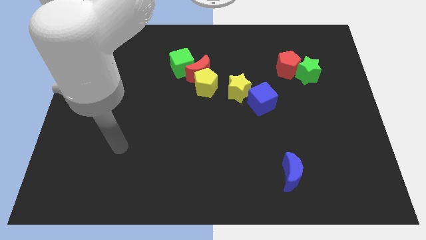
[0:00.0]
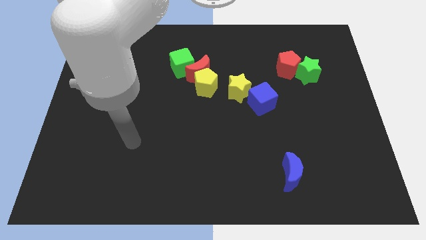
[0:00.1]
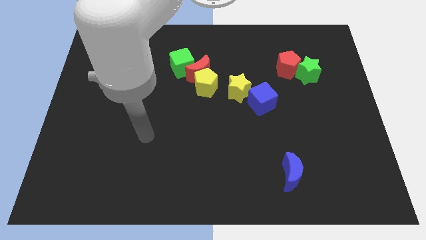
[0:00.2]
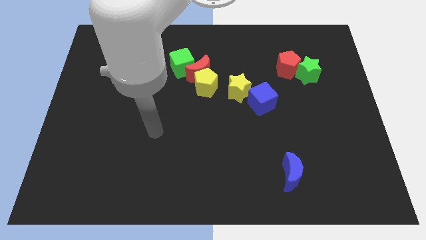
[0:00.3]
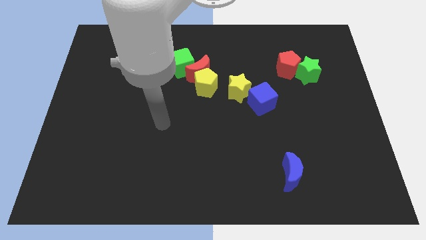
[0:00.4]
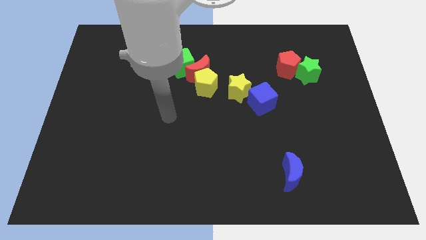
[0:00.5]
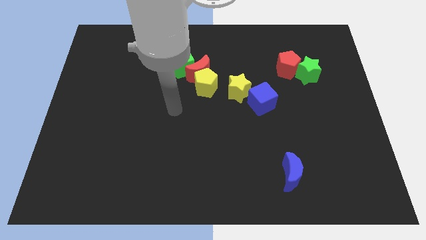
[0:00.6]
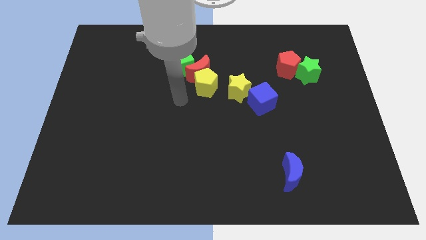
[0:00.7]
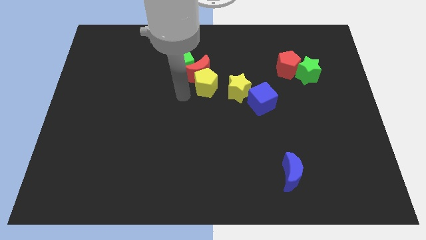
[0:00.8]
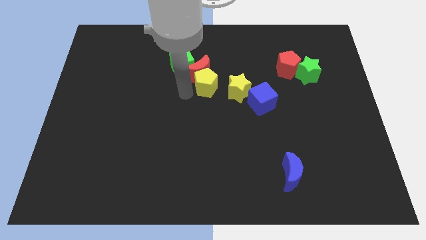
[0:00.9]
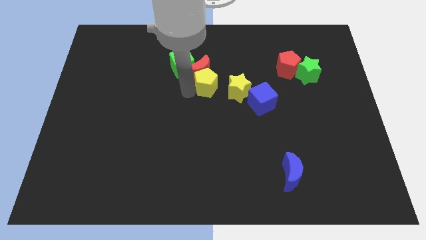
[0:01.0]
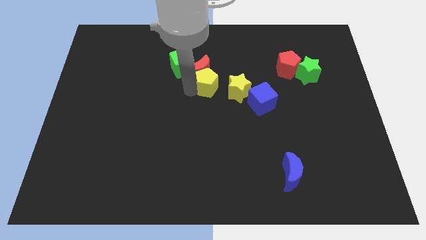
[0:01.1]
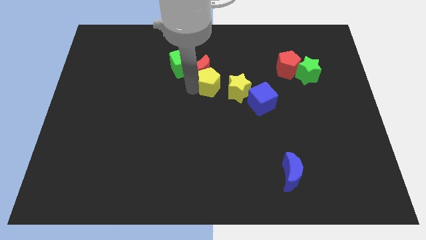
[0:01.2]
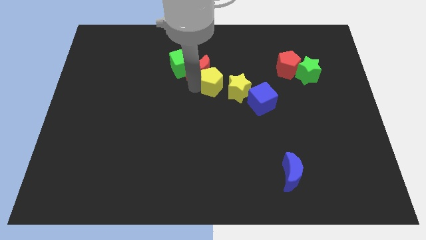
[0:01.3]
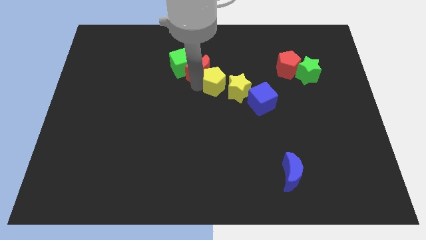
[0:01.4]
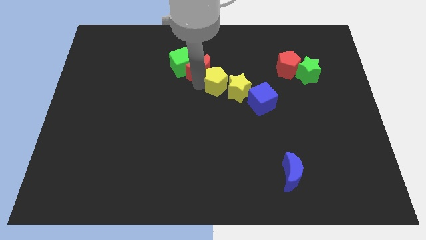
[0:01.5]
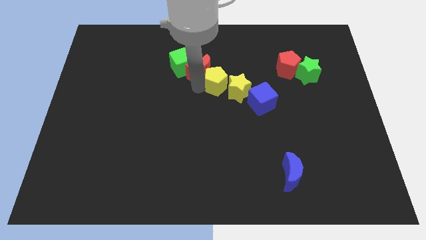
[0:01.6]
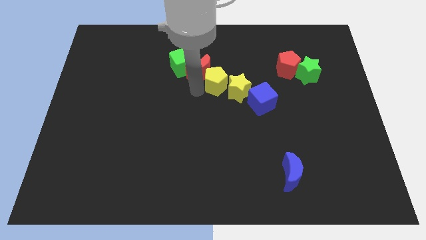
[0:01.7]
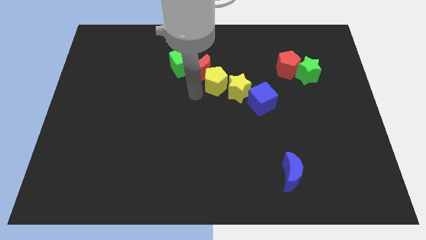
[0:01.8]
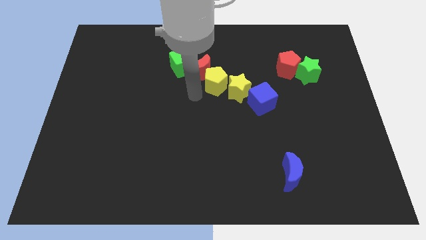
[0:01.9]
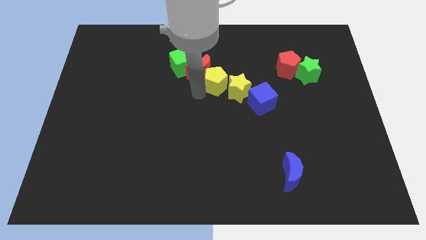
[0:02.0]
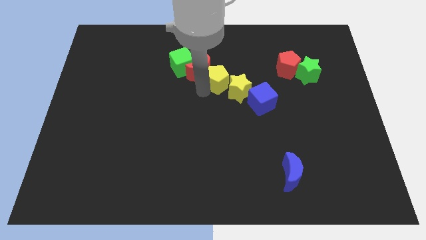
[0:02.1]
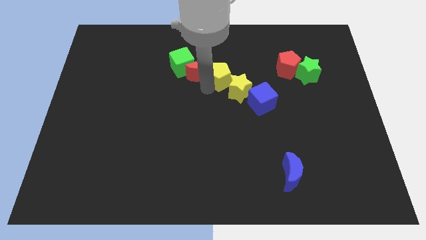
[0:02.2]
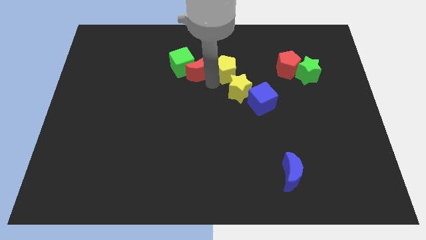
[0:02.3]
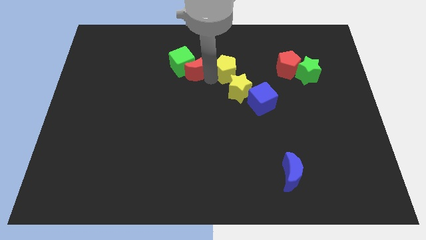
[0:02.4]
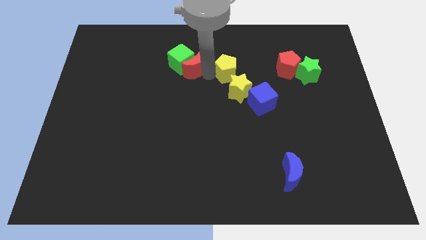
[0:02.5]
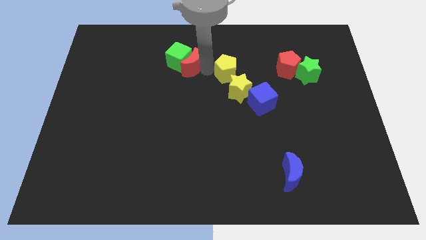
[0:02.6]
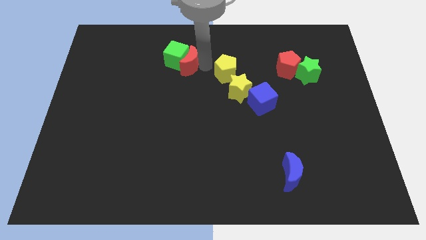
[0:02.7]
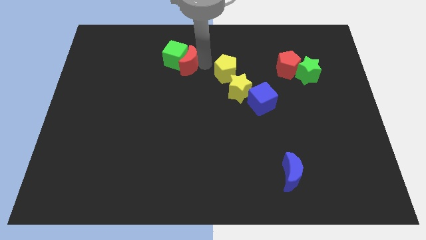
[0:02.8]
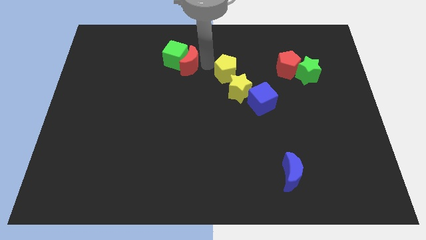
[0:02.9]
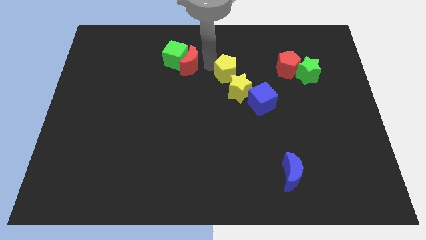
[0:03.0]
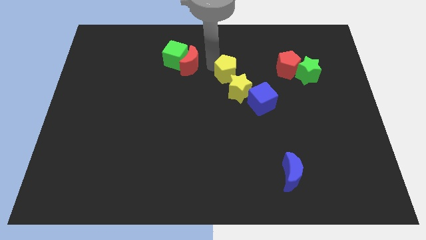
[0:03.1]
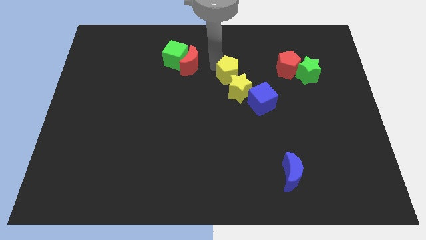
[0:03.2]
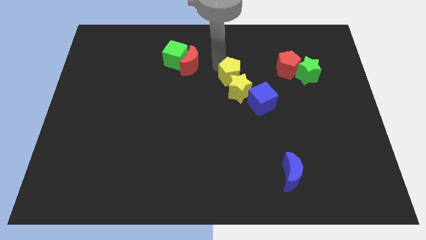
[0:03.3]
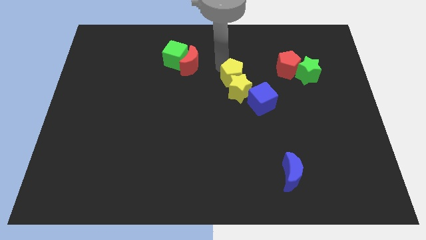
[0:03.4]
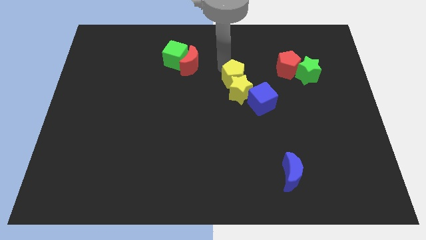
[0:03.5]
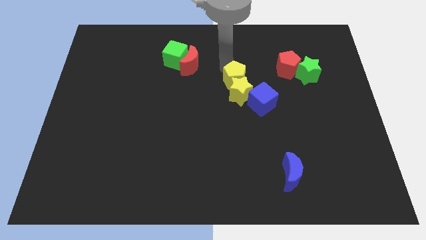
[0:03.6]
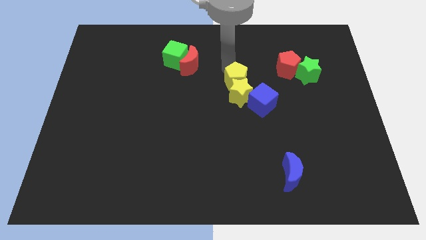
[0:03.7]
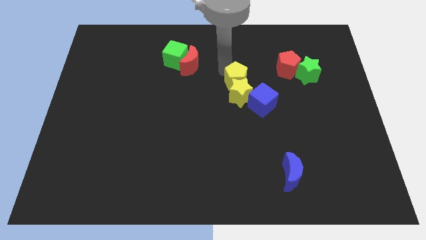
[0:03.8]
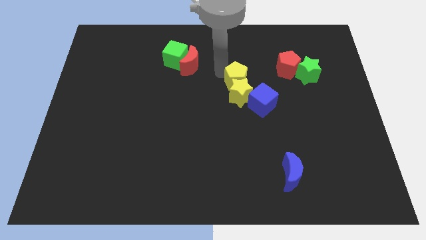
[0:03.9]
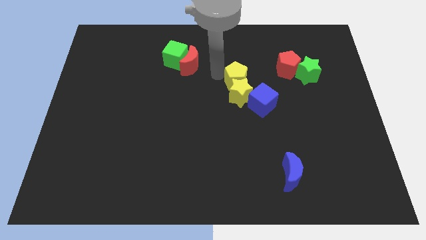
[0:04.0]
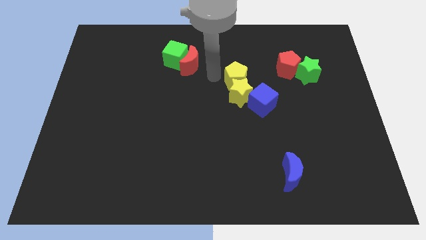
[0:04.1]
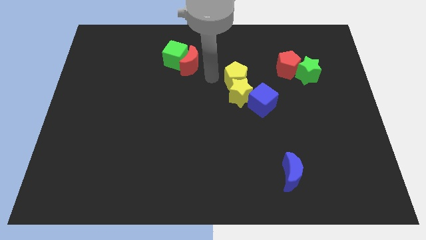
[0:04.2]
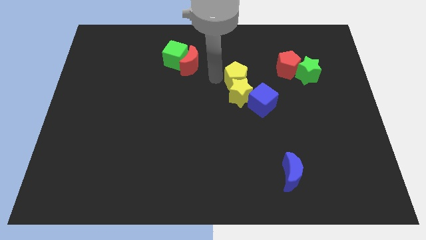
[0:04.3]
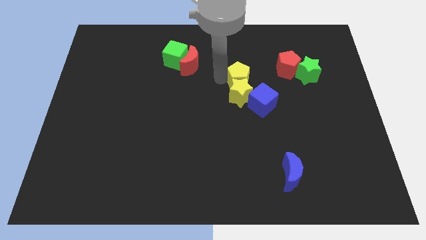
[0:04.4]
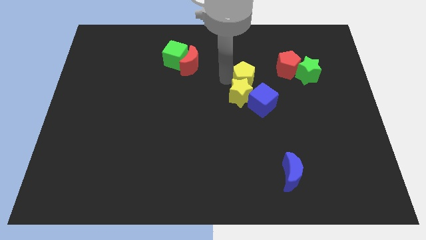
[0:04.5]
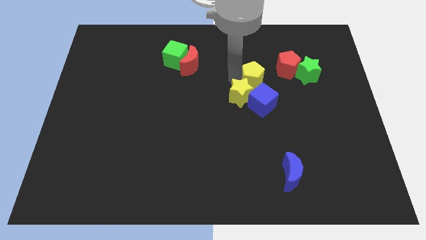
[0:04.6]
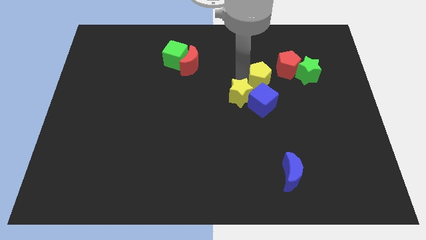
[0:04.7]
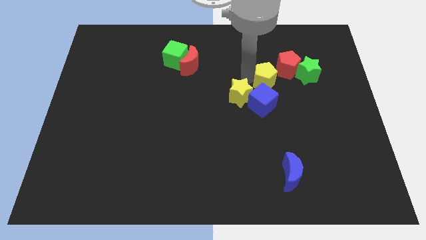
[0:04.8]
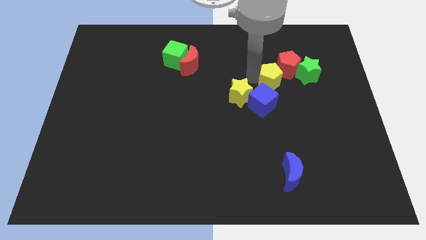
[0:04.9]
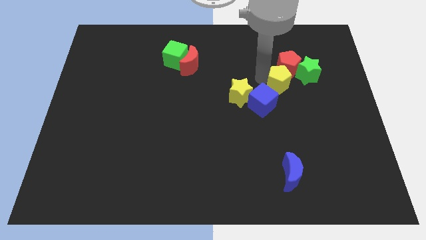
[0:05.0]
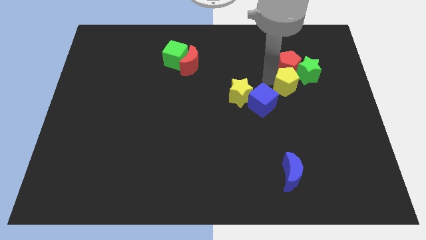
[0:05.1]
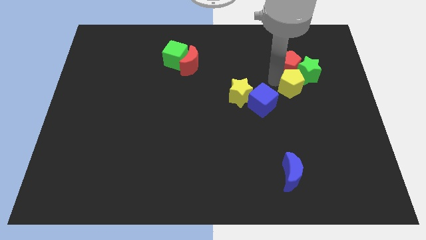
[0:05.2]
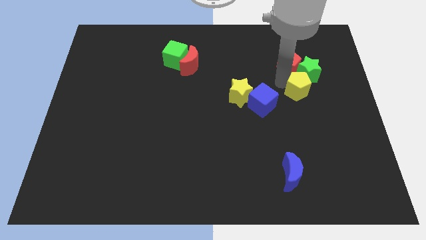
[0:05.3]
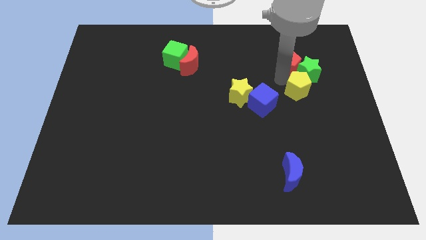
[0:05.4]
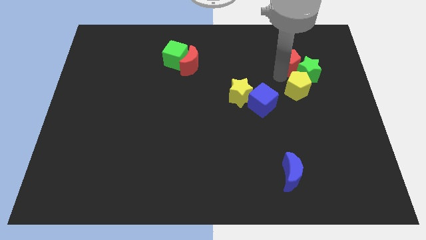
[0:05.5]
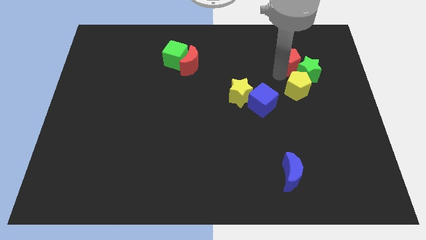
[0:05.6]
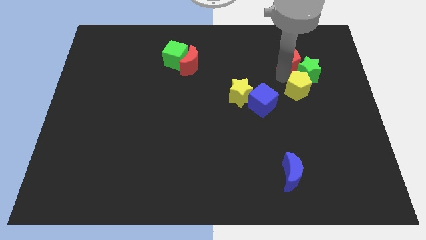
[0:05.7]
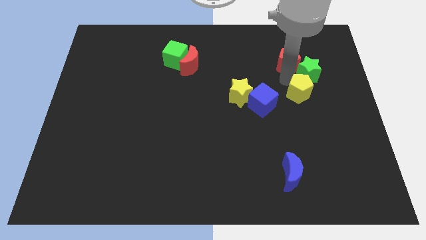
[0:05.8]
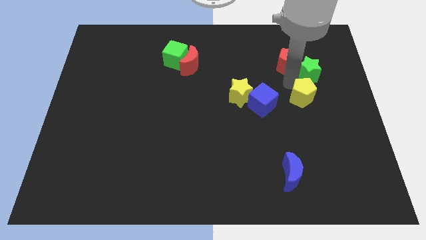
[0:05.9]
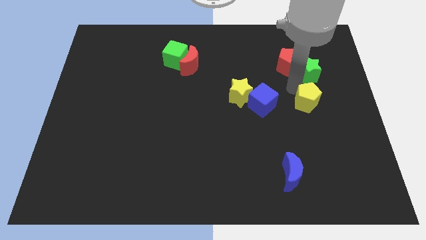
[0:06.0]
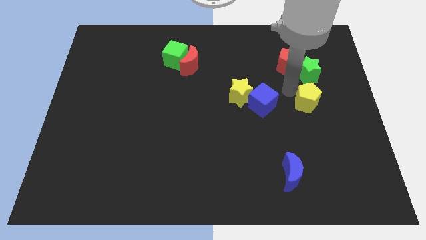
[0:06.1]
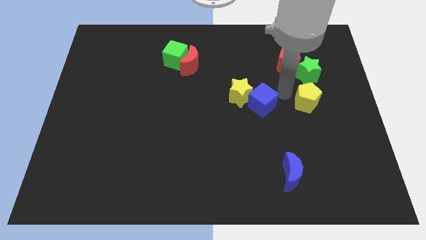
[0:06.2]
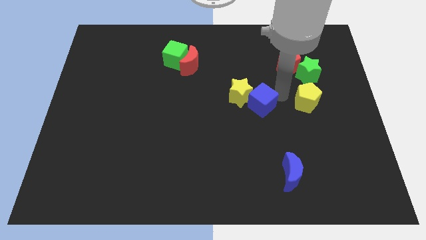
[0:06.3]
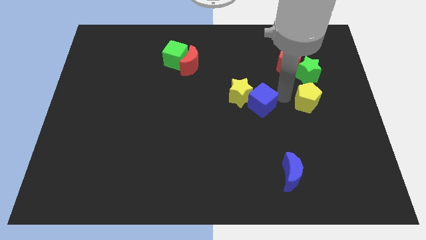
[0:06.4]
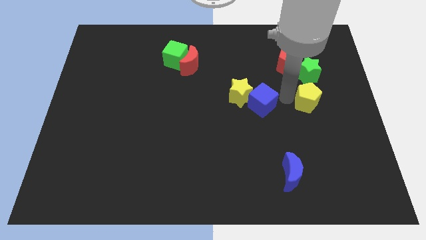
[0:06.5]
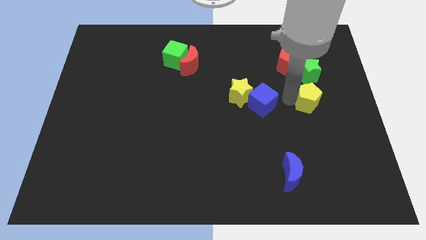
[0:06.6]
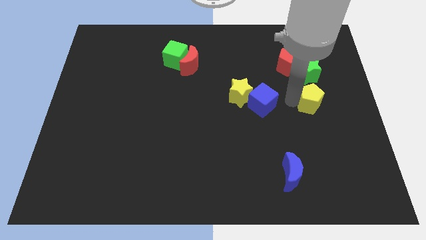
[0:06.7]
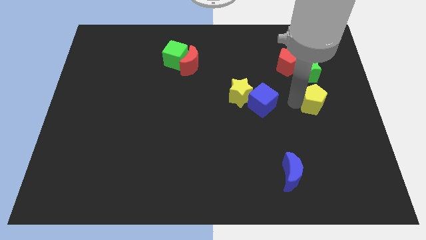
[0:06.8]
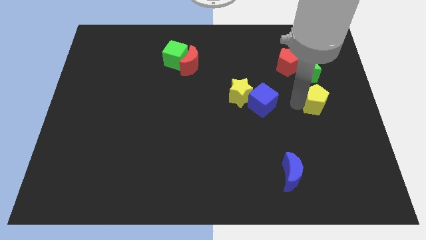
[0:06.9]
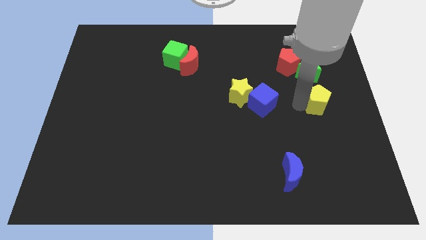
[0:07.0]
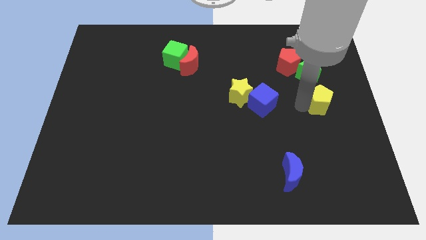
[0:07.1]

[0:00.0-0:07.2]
move the yellow pentagon to the right side of the board

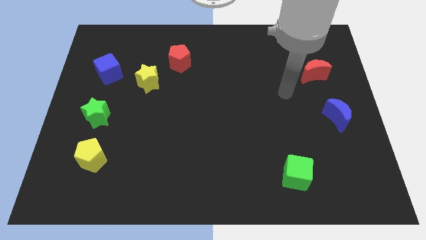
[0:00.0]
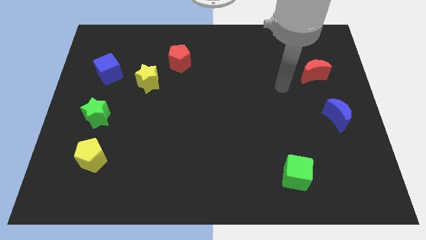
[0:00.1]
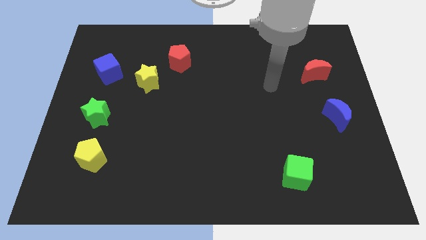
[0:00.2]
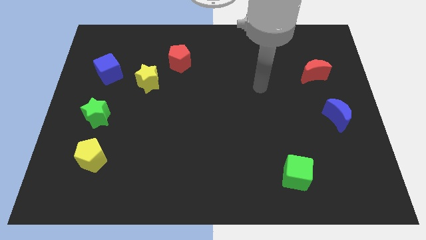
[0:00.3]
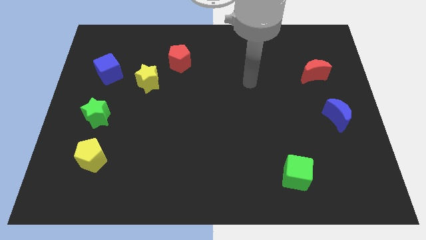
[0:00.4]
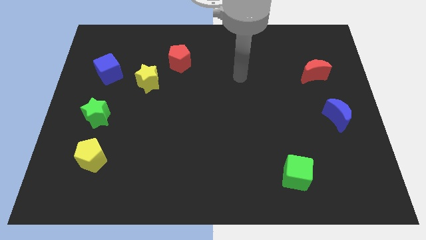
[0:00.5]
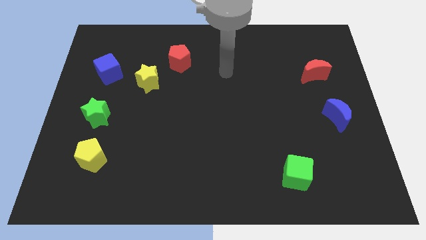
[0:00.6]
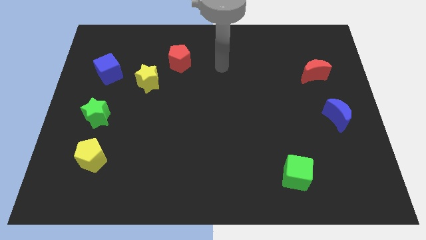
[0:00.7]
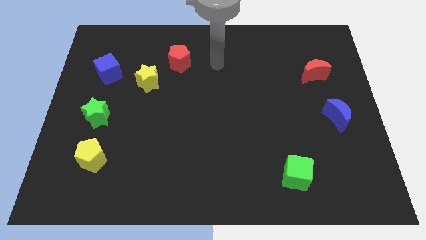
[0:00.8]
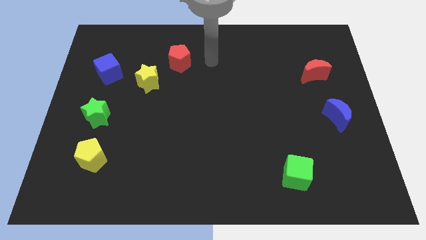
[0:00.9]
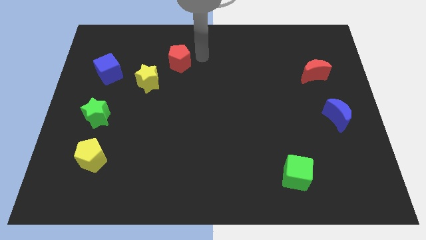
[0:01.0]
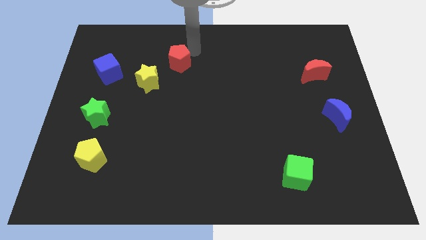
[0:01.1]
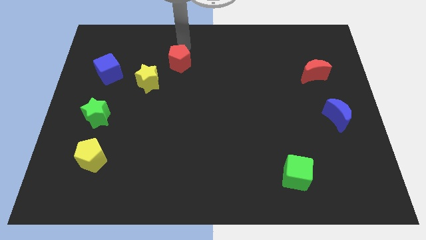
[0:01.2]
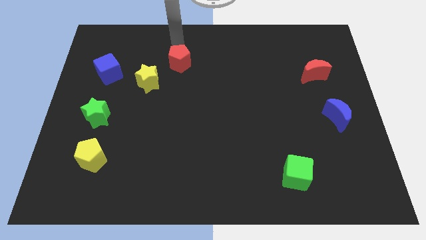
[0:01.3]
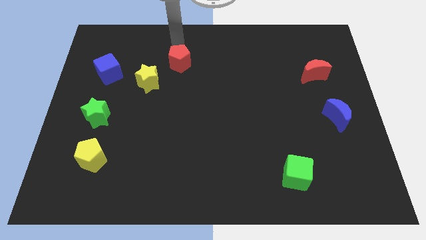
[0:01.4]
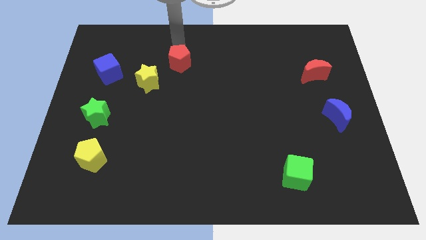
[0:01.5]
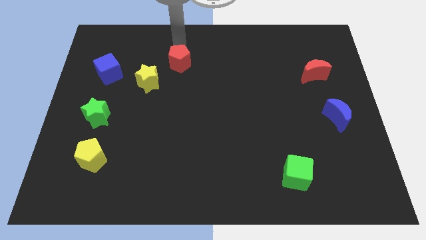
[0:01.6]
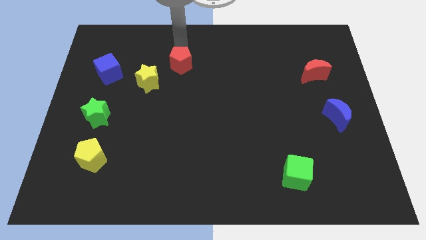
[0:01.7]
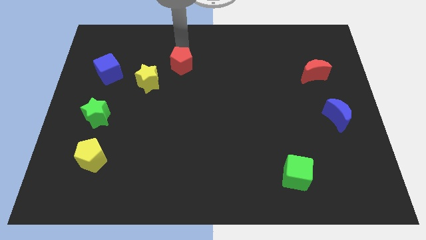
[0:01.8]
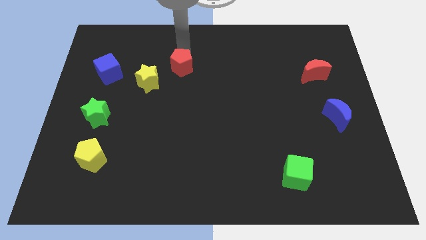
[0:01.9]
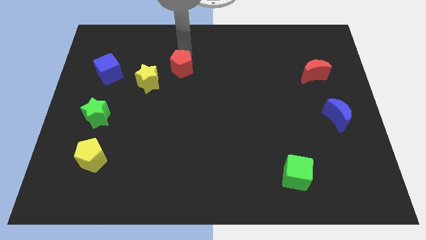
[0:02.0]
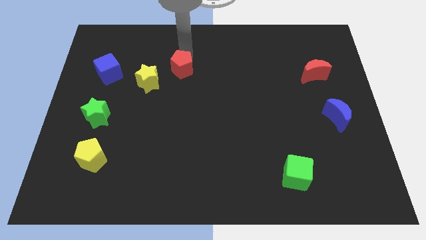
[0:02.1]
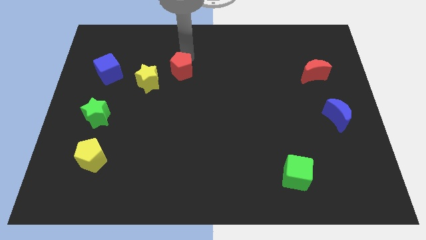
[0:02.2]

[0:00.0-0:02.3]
put the red pentagon to the middle of the board
